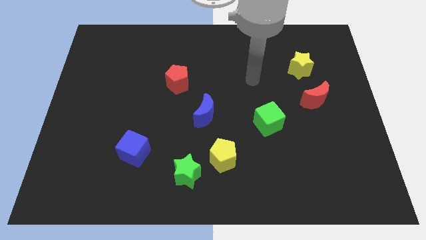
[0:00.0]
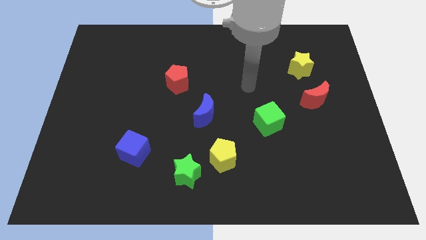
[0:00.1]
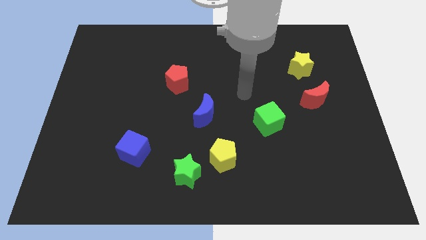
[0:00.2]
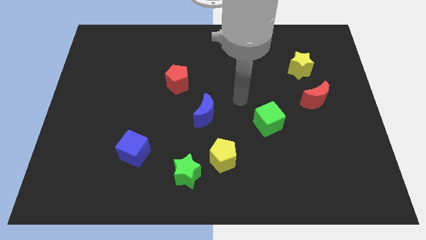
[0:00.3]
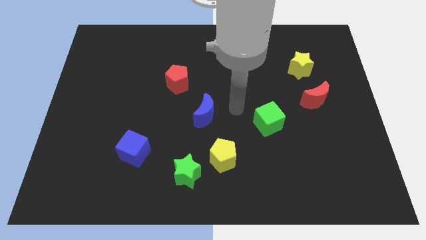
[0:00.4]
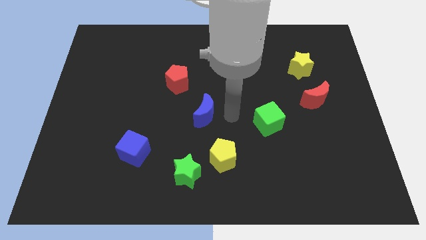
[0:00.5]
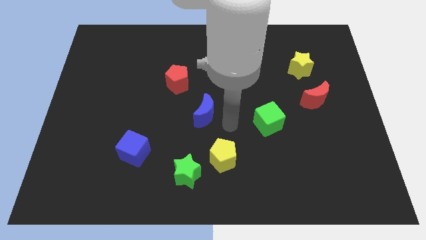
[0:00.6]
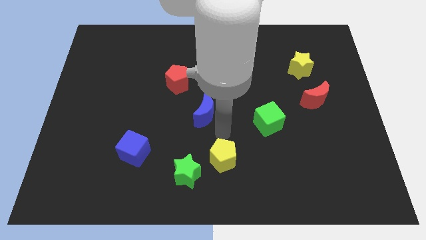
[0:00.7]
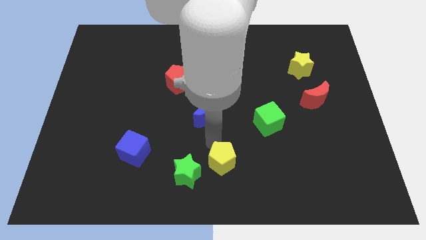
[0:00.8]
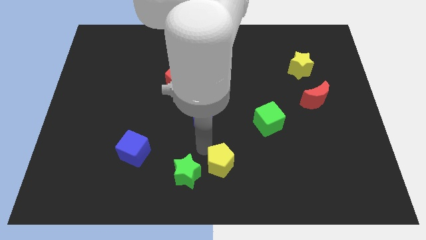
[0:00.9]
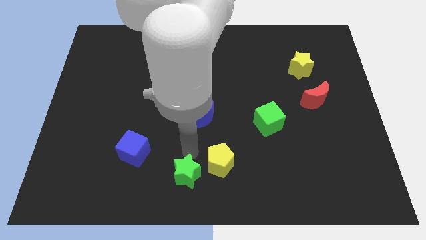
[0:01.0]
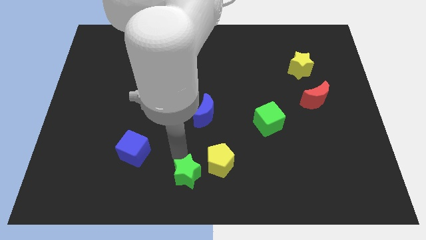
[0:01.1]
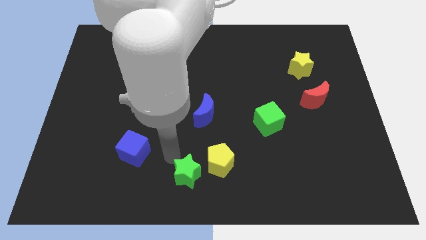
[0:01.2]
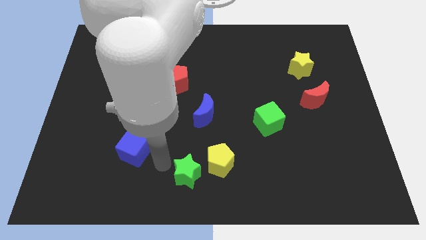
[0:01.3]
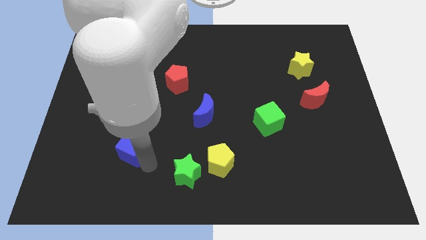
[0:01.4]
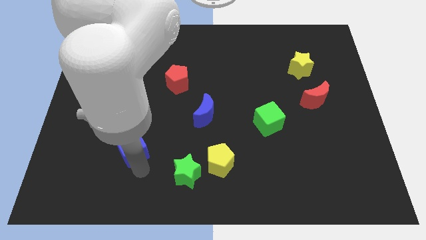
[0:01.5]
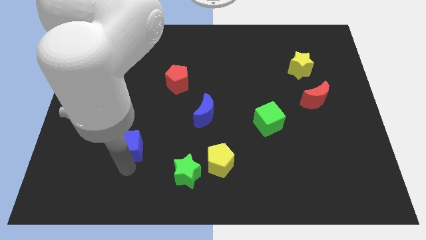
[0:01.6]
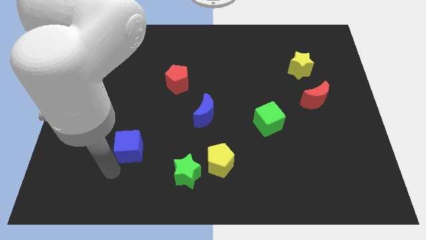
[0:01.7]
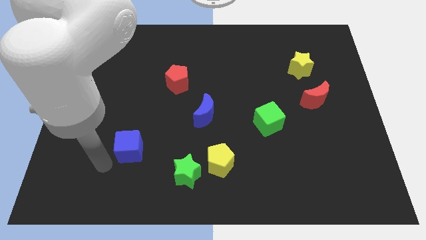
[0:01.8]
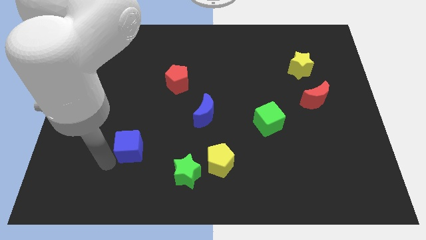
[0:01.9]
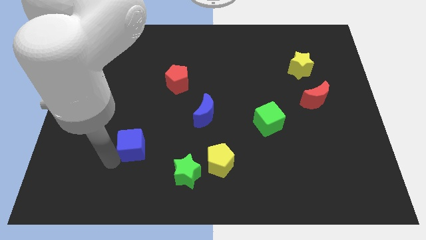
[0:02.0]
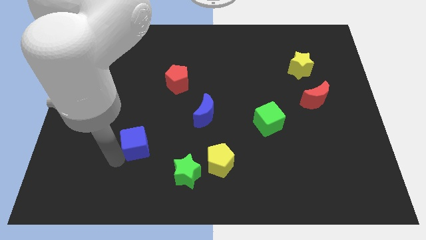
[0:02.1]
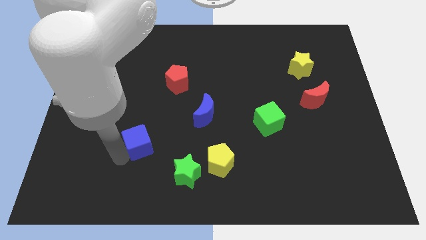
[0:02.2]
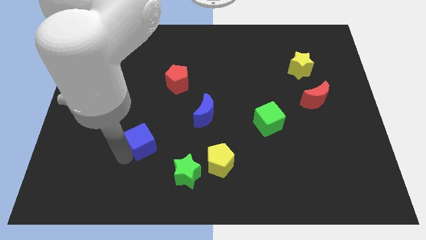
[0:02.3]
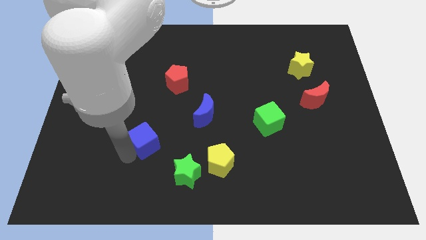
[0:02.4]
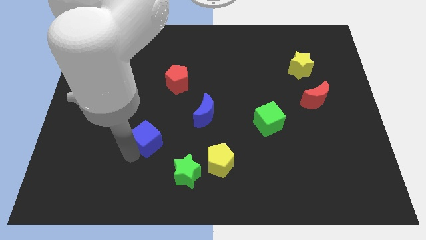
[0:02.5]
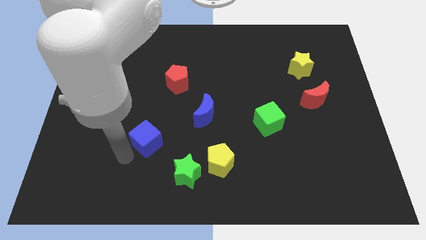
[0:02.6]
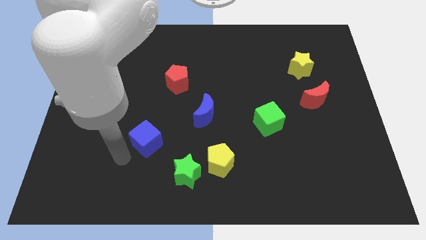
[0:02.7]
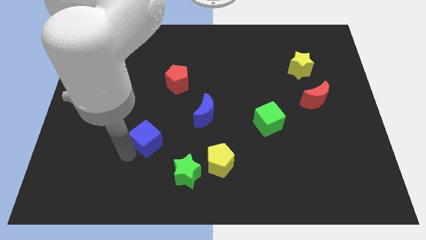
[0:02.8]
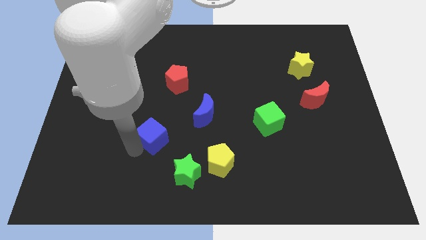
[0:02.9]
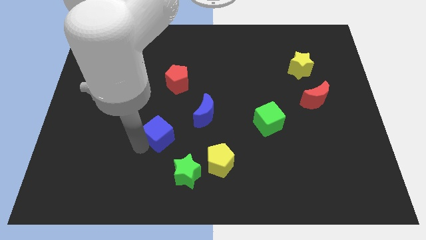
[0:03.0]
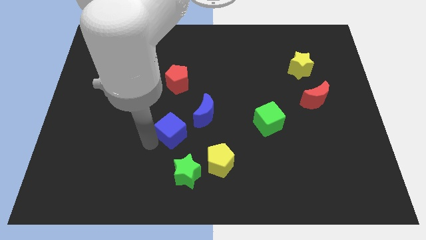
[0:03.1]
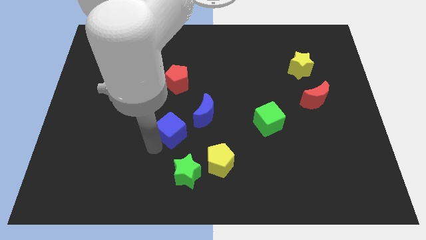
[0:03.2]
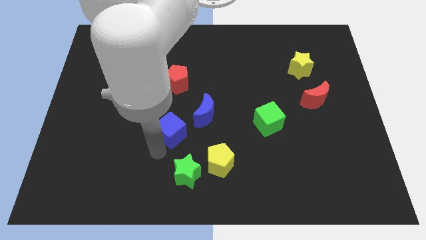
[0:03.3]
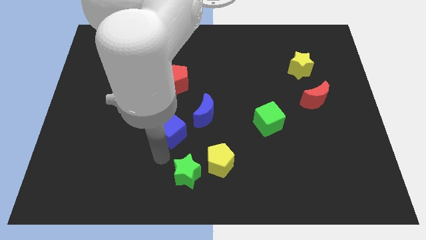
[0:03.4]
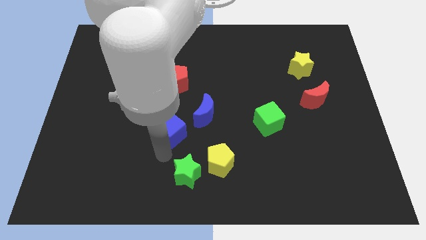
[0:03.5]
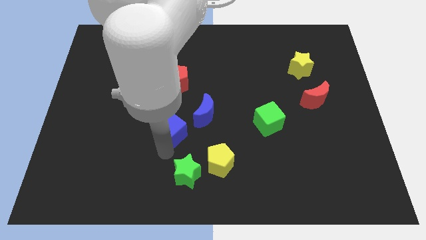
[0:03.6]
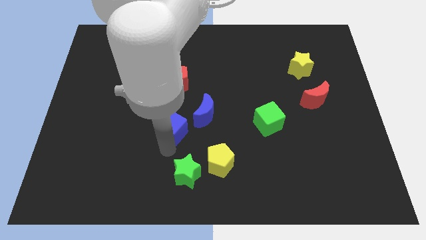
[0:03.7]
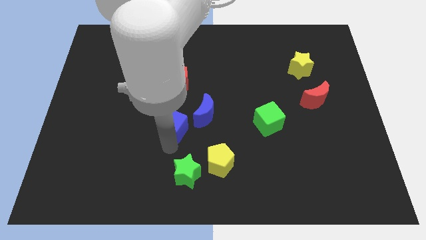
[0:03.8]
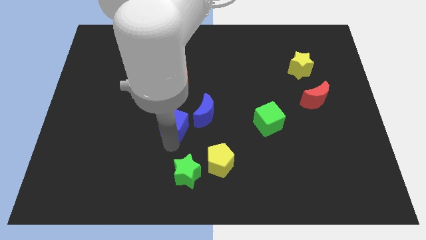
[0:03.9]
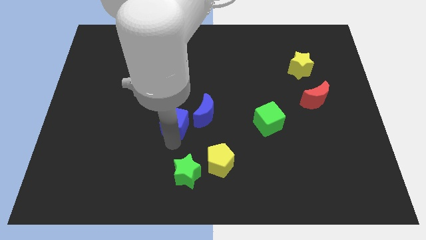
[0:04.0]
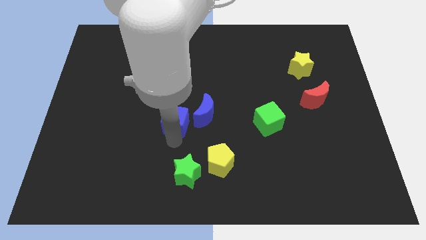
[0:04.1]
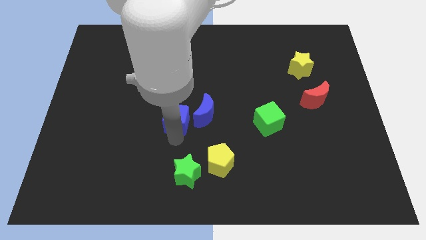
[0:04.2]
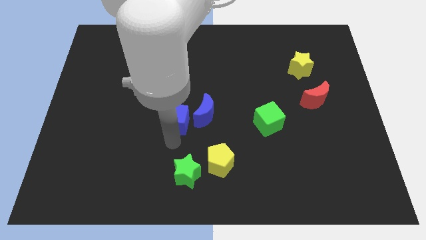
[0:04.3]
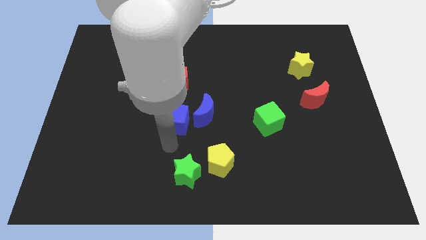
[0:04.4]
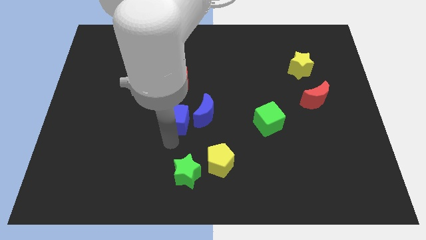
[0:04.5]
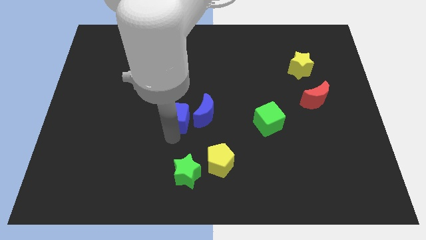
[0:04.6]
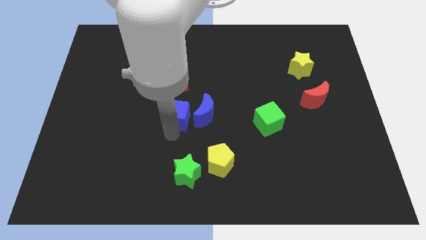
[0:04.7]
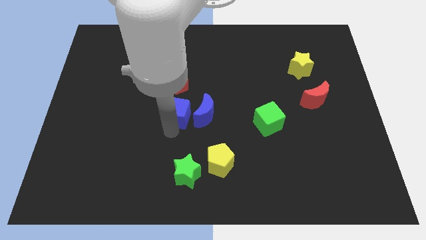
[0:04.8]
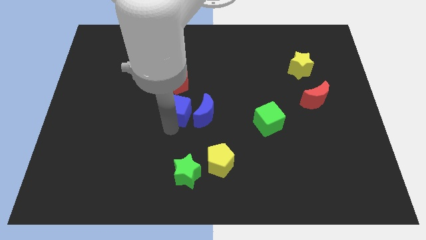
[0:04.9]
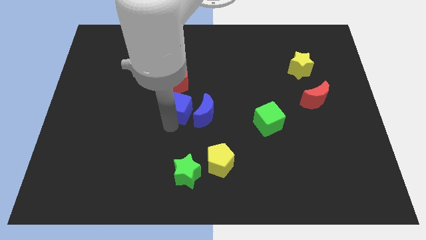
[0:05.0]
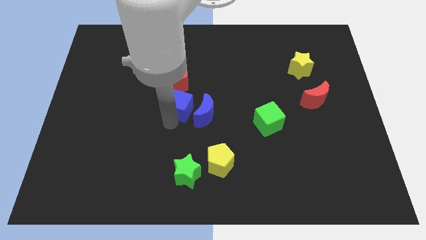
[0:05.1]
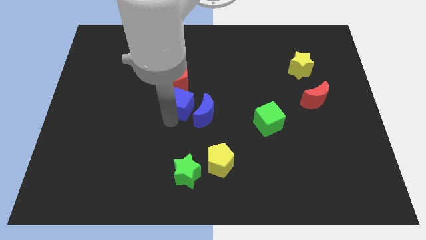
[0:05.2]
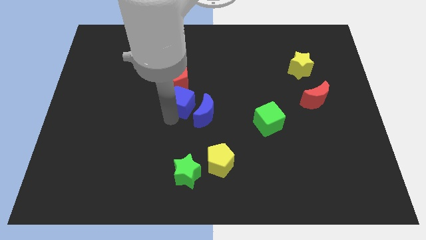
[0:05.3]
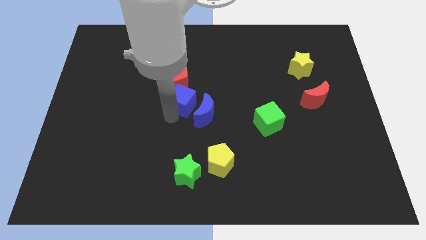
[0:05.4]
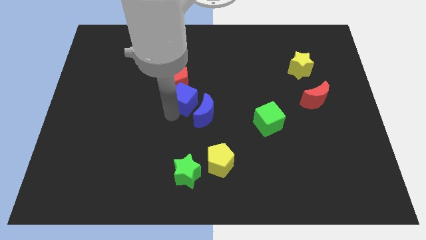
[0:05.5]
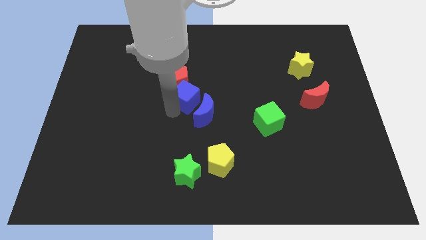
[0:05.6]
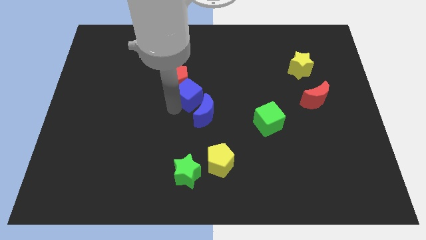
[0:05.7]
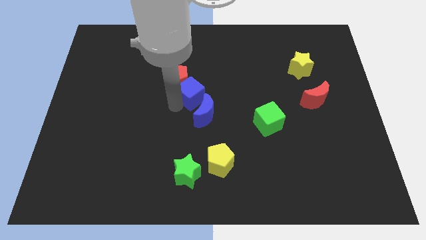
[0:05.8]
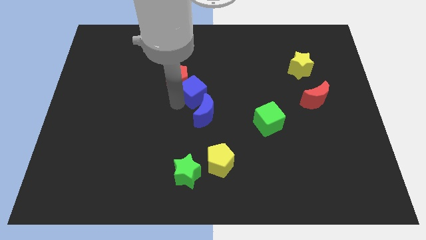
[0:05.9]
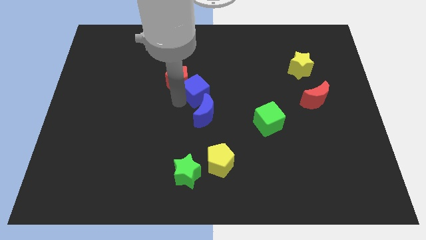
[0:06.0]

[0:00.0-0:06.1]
slide the blue cube upwards and then to the right

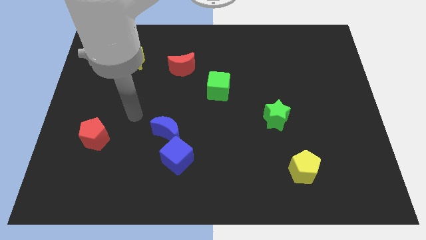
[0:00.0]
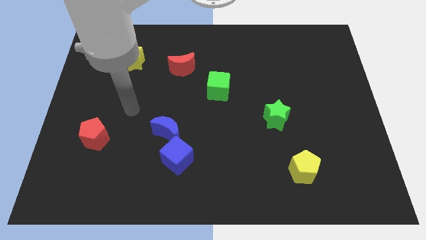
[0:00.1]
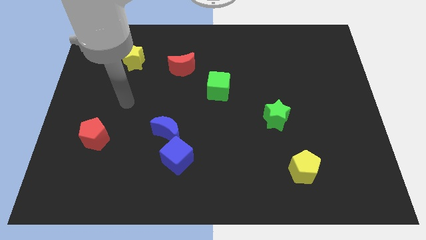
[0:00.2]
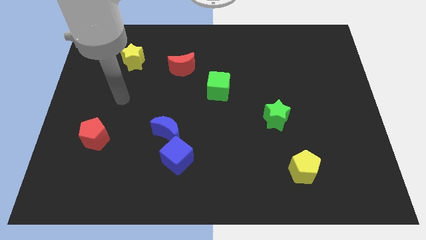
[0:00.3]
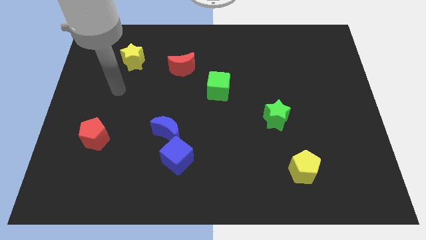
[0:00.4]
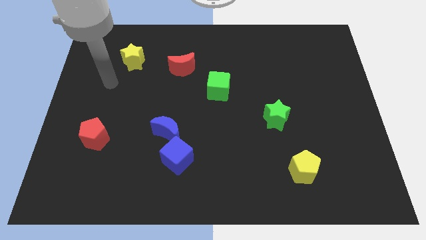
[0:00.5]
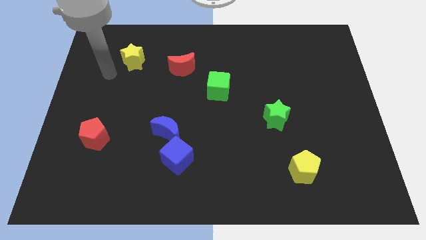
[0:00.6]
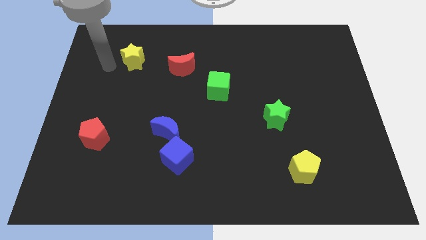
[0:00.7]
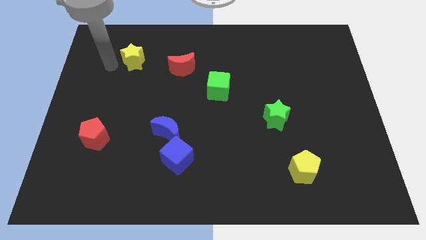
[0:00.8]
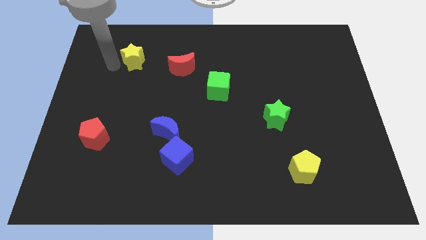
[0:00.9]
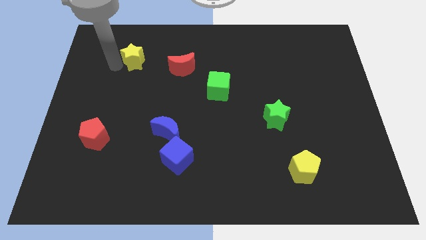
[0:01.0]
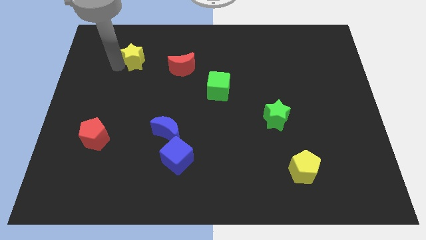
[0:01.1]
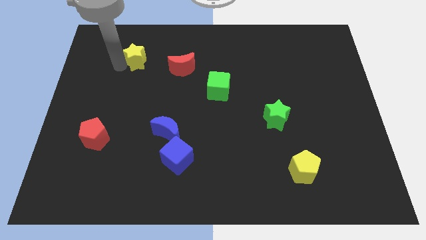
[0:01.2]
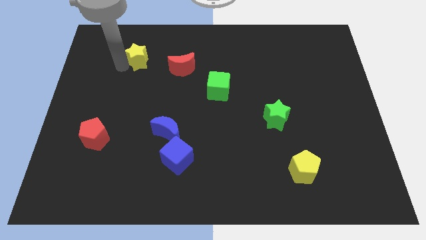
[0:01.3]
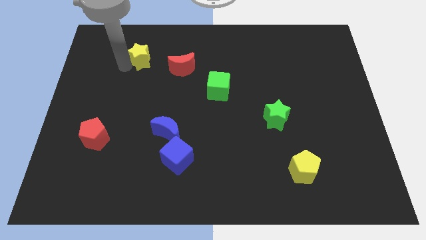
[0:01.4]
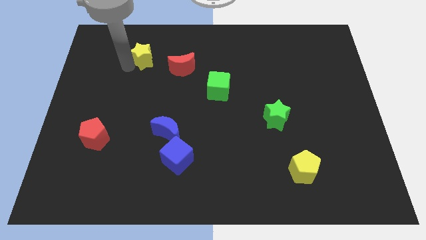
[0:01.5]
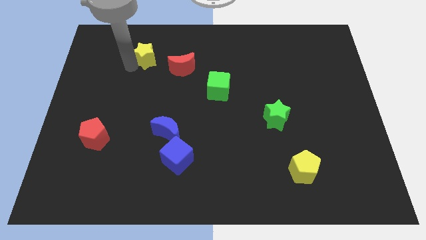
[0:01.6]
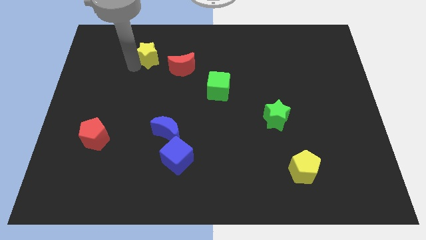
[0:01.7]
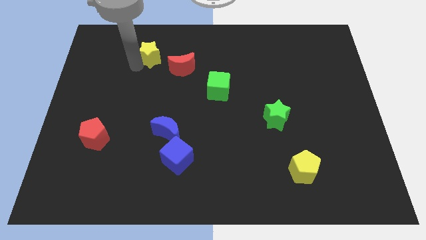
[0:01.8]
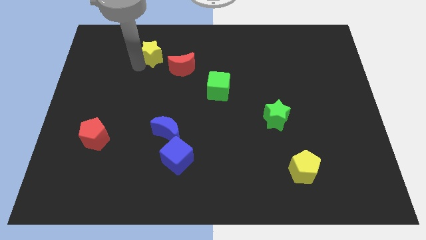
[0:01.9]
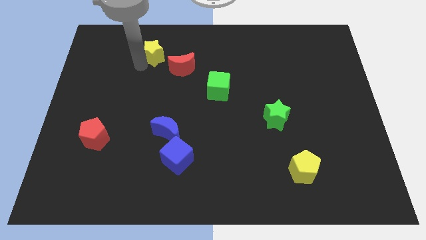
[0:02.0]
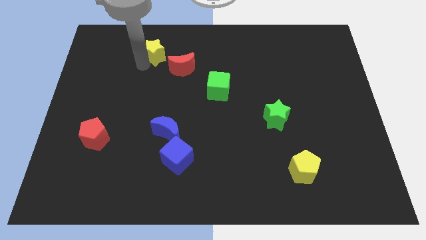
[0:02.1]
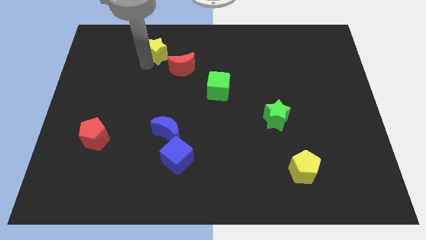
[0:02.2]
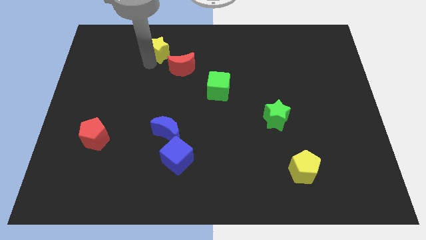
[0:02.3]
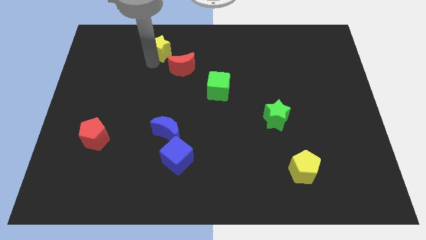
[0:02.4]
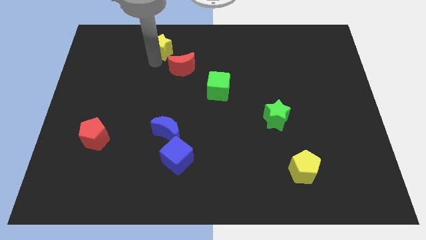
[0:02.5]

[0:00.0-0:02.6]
move the yellow star somewhat right
